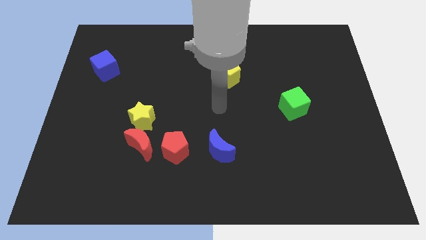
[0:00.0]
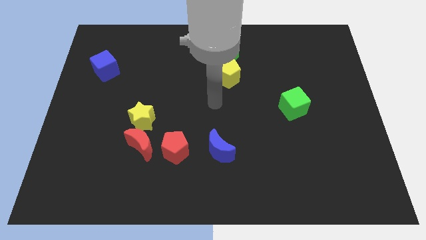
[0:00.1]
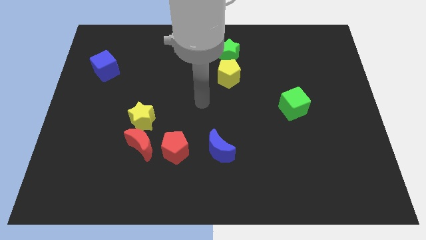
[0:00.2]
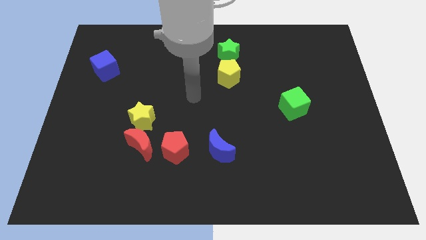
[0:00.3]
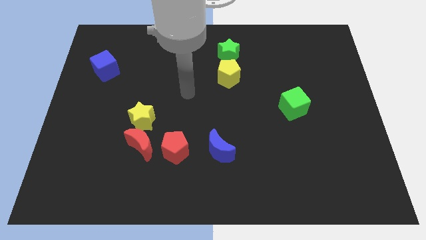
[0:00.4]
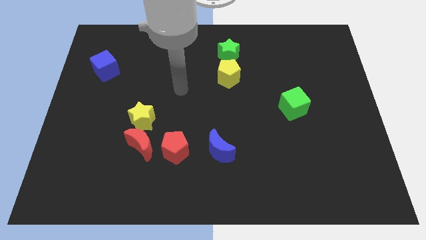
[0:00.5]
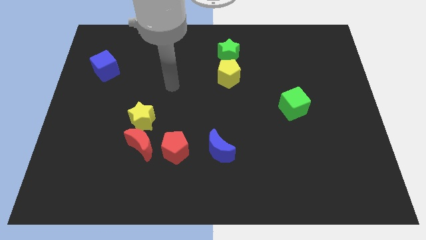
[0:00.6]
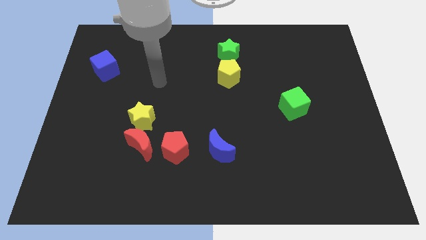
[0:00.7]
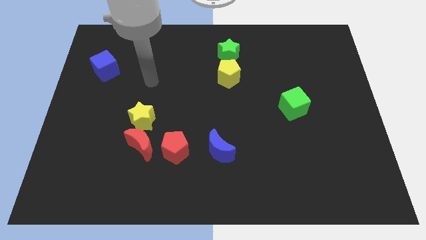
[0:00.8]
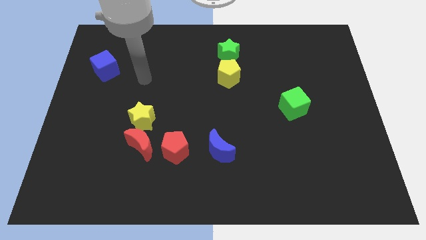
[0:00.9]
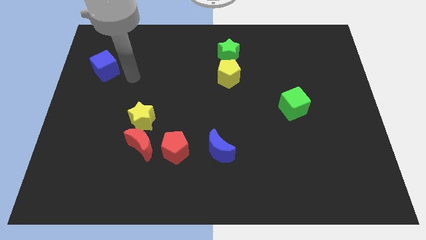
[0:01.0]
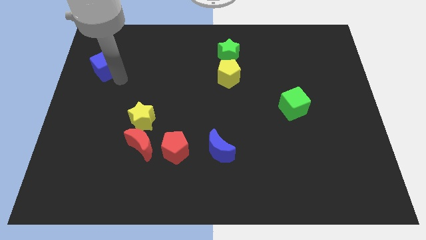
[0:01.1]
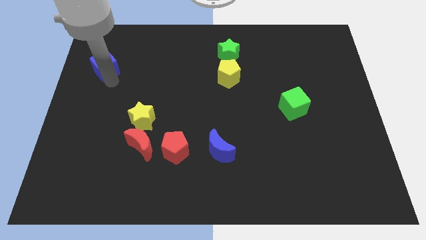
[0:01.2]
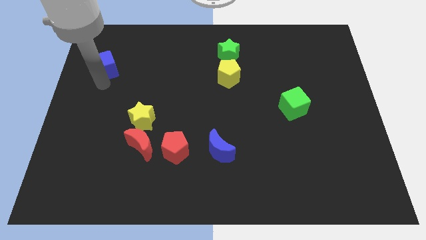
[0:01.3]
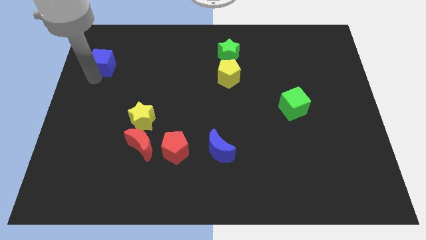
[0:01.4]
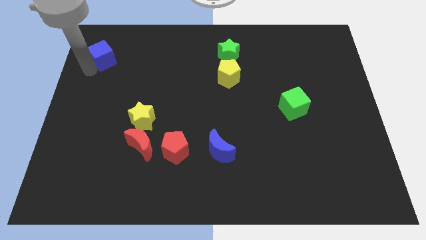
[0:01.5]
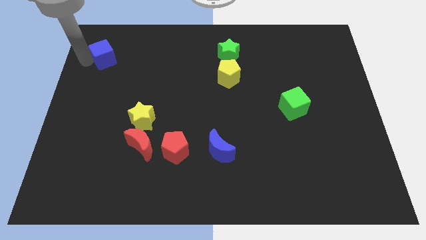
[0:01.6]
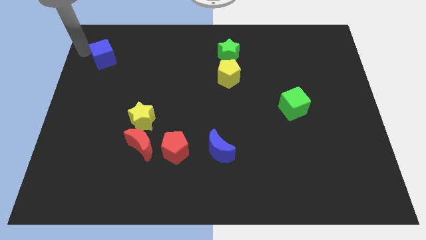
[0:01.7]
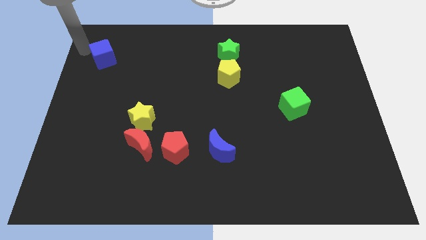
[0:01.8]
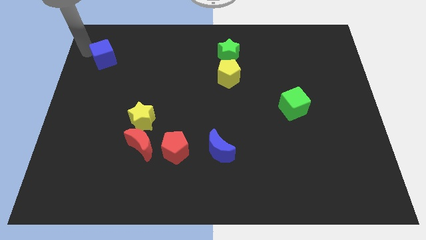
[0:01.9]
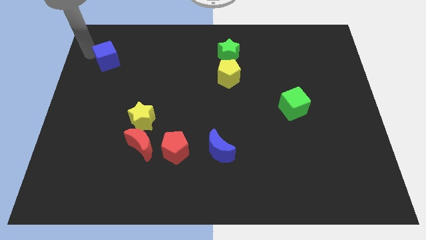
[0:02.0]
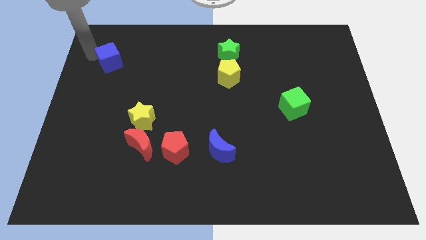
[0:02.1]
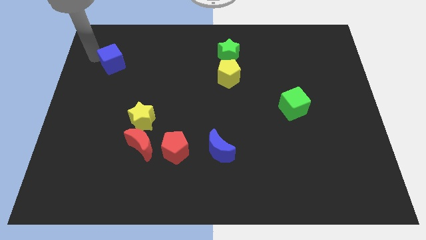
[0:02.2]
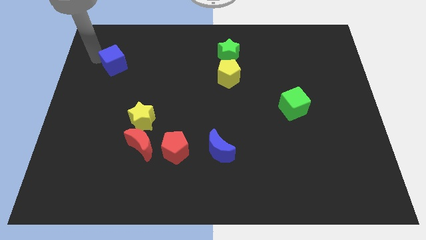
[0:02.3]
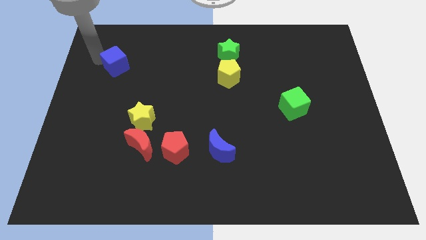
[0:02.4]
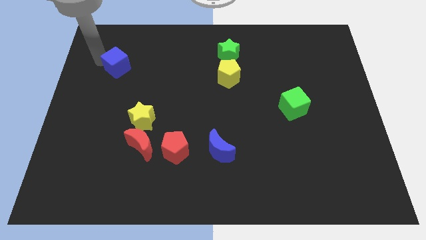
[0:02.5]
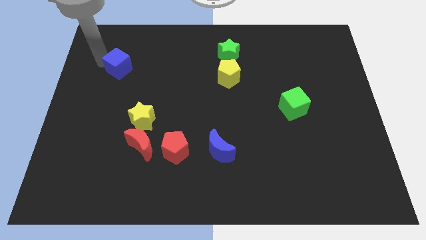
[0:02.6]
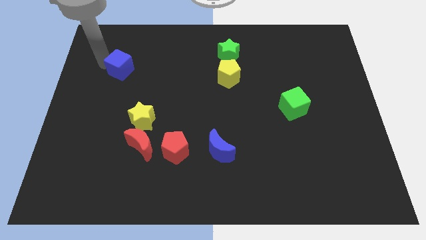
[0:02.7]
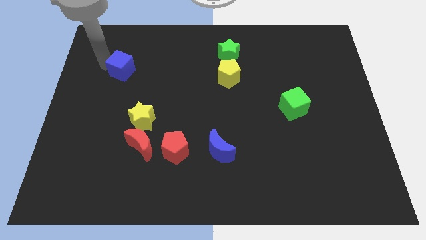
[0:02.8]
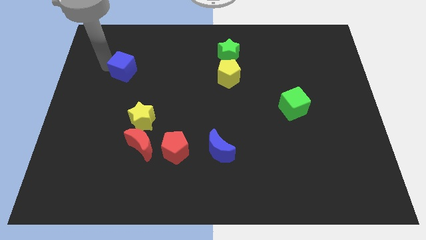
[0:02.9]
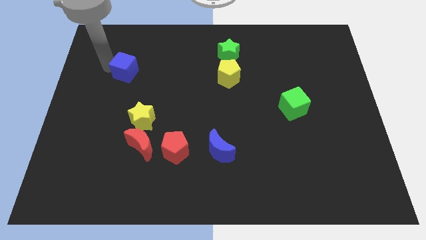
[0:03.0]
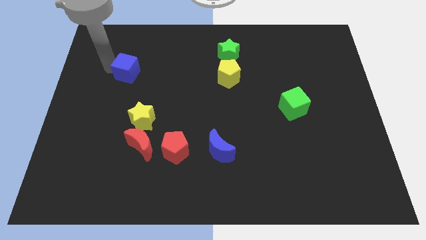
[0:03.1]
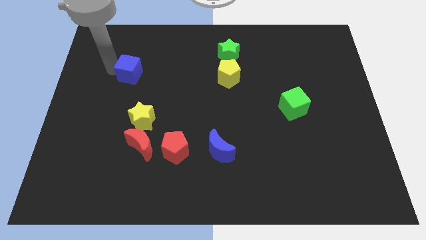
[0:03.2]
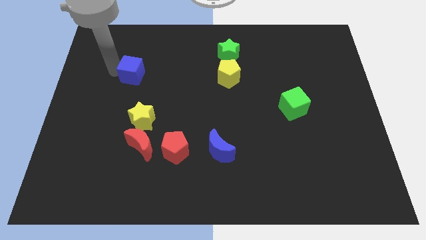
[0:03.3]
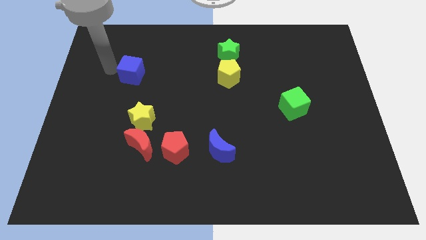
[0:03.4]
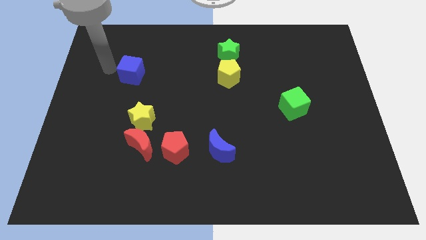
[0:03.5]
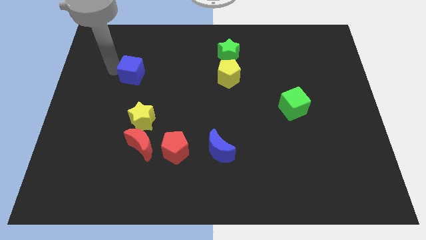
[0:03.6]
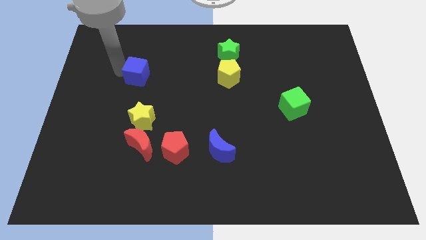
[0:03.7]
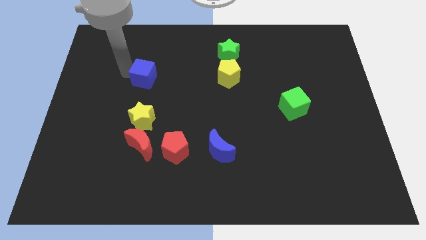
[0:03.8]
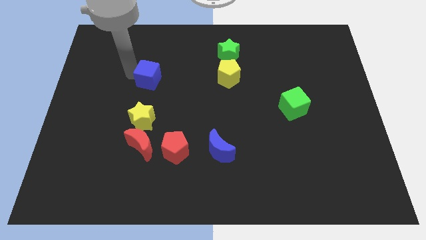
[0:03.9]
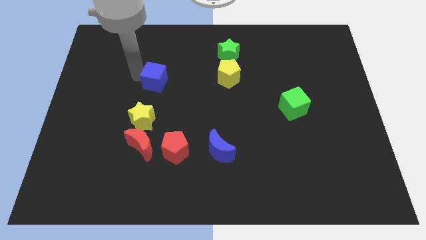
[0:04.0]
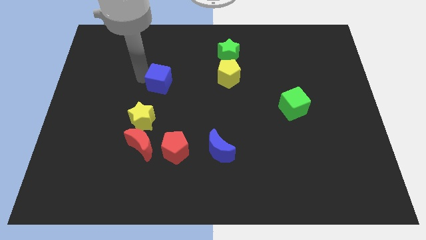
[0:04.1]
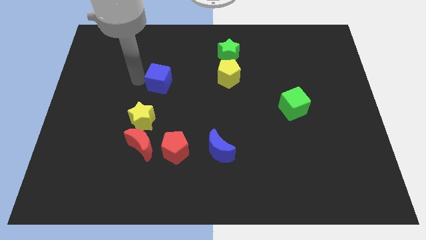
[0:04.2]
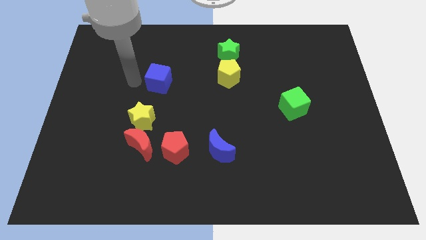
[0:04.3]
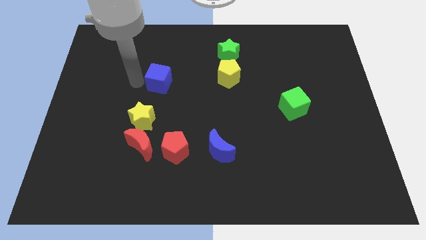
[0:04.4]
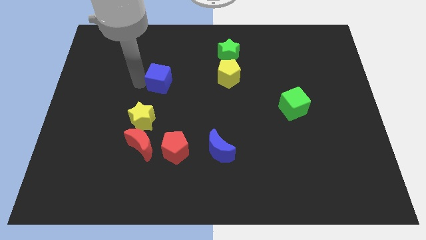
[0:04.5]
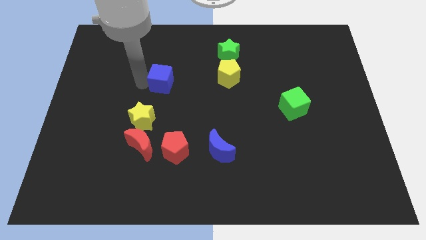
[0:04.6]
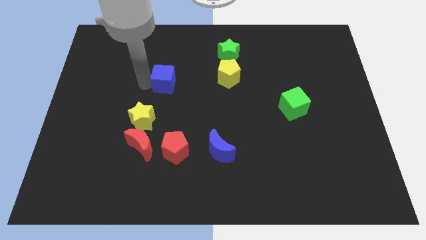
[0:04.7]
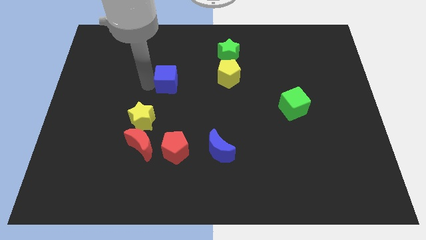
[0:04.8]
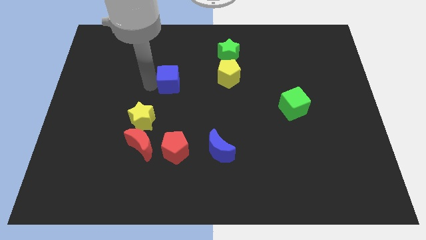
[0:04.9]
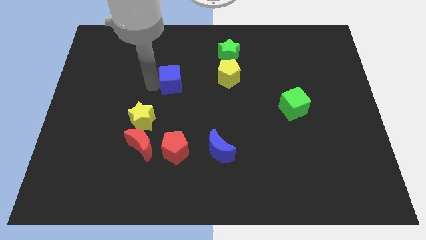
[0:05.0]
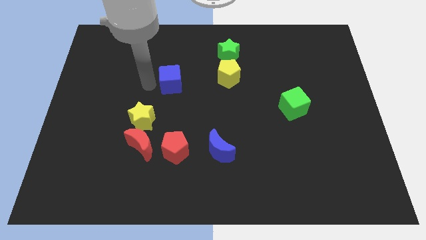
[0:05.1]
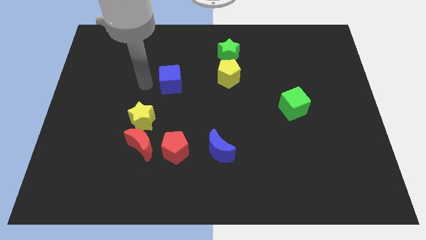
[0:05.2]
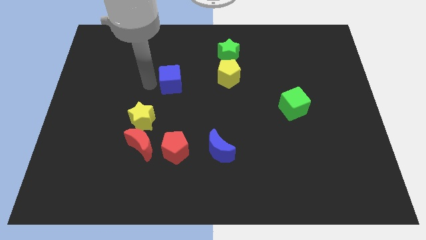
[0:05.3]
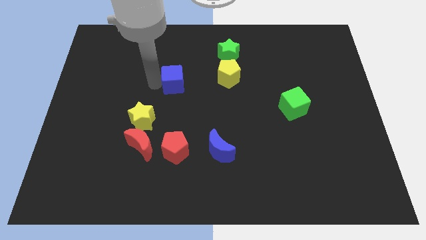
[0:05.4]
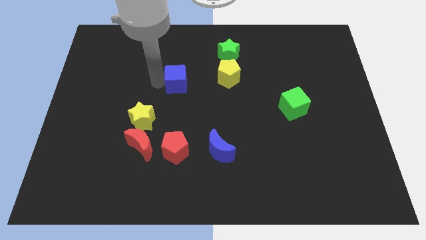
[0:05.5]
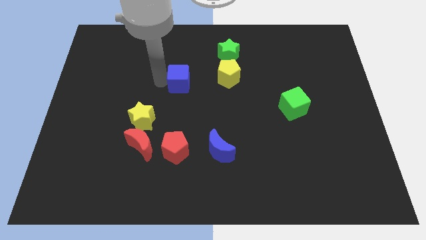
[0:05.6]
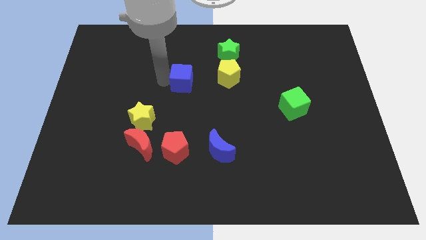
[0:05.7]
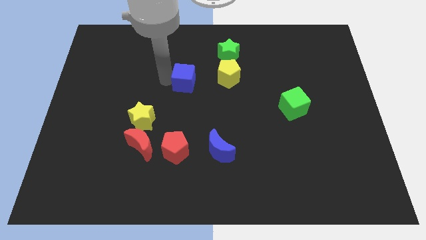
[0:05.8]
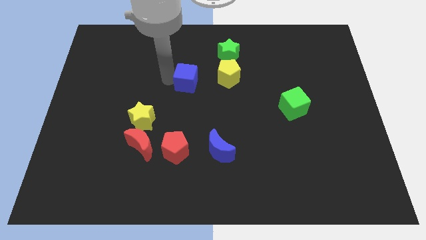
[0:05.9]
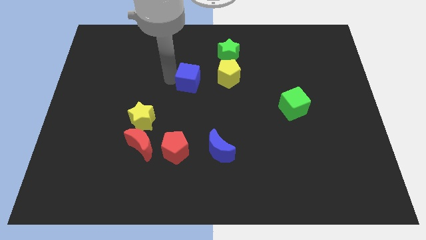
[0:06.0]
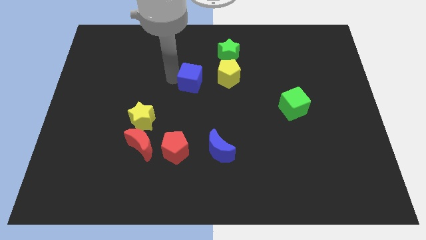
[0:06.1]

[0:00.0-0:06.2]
slide the blue cube to the bottom left of the green star

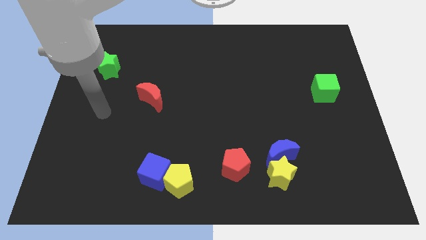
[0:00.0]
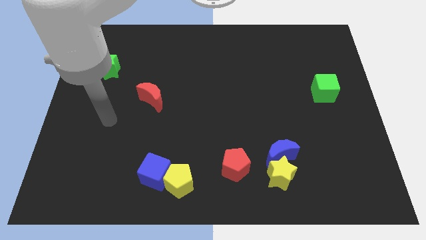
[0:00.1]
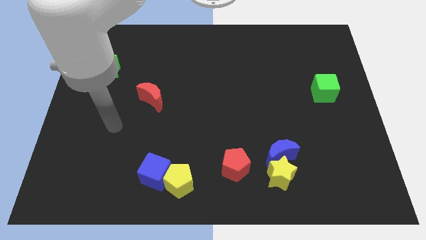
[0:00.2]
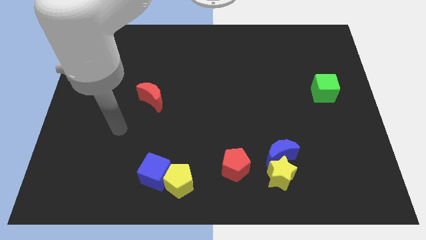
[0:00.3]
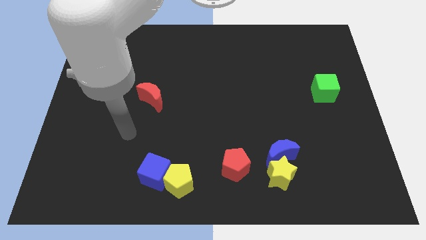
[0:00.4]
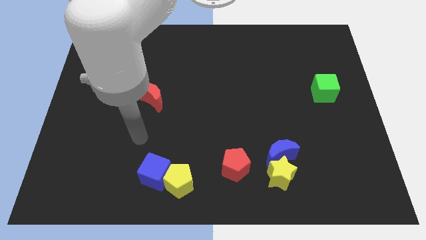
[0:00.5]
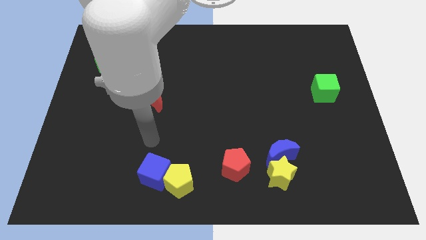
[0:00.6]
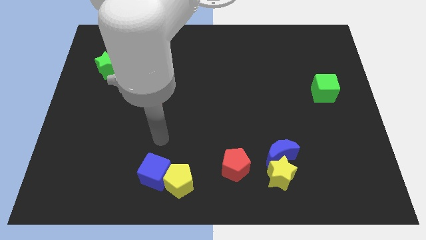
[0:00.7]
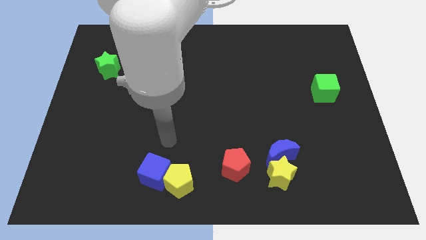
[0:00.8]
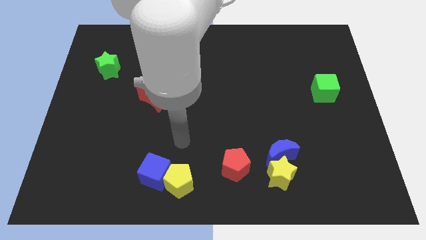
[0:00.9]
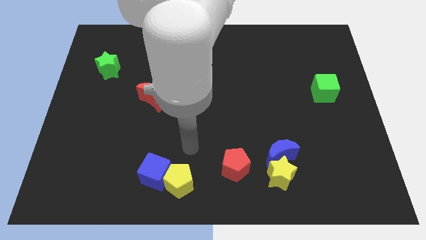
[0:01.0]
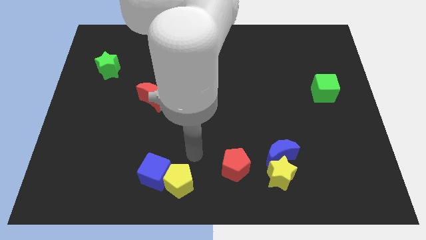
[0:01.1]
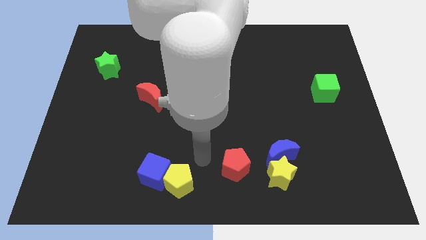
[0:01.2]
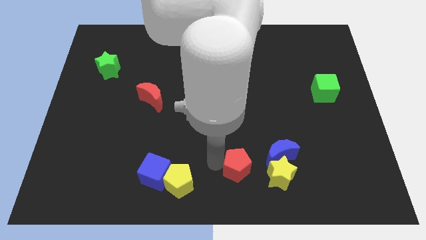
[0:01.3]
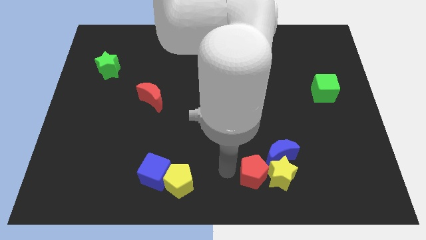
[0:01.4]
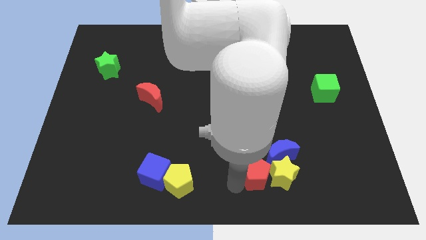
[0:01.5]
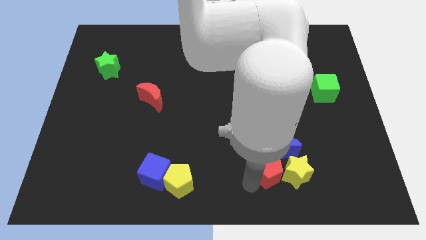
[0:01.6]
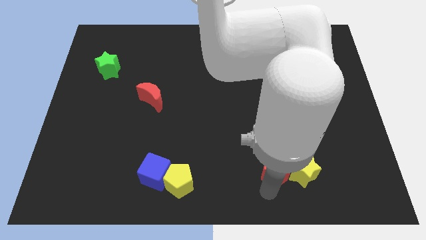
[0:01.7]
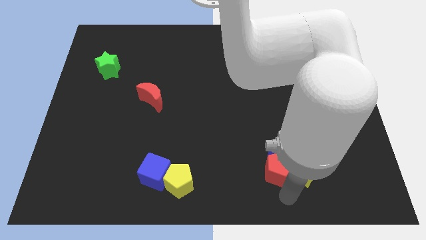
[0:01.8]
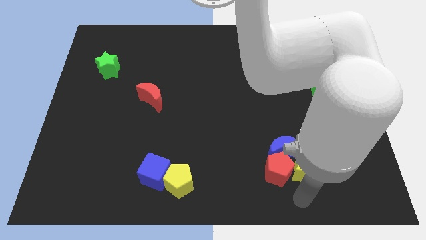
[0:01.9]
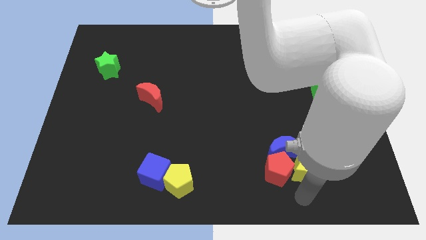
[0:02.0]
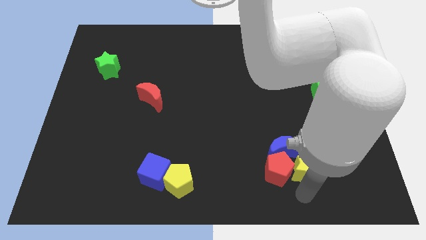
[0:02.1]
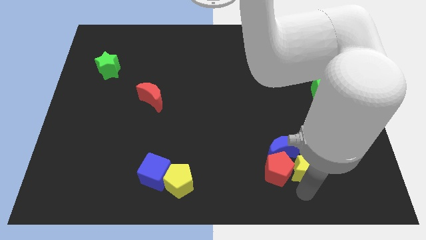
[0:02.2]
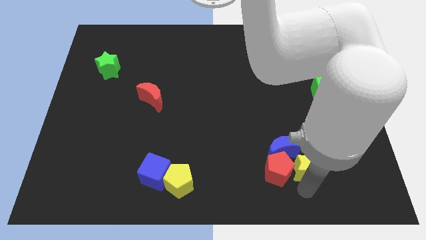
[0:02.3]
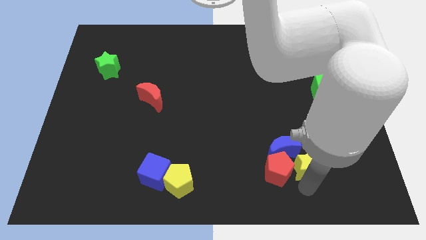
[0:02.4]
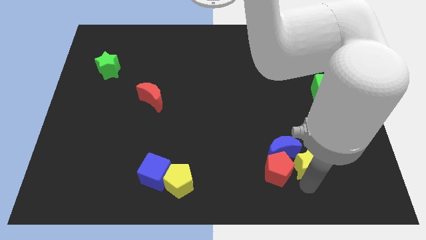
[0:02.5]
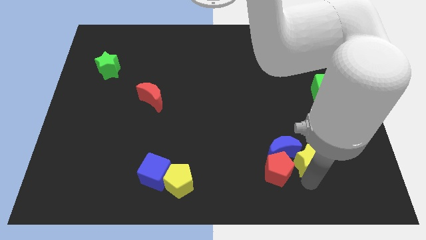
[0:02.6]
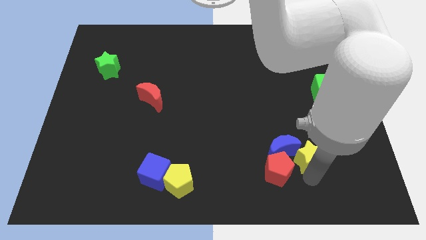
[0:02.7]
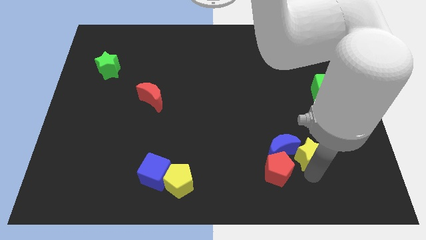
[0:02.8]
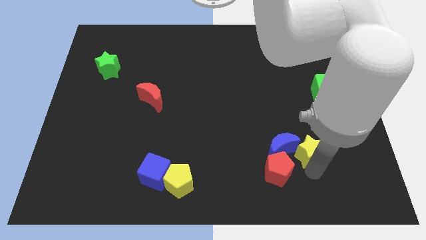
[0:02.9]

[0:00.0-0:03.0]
move the yellow star to the top right of the blue moon
